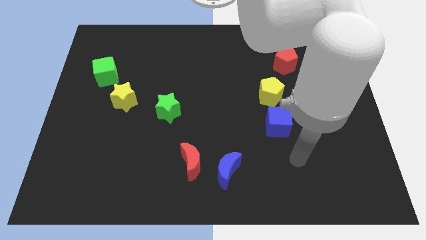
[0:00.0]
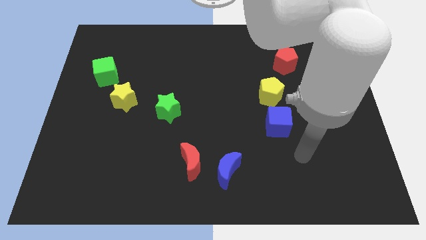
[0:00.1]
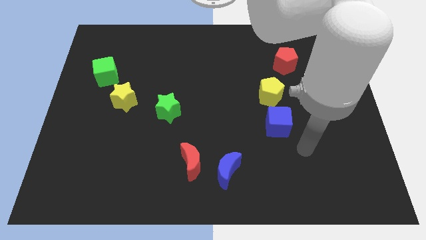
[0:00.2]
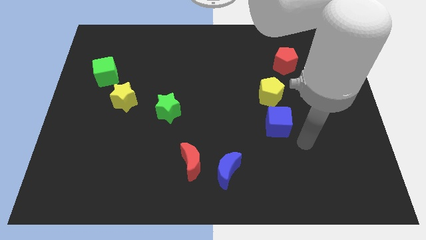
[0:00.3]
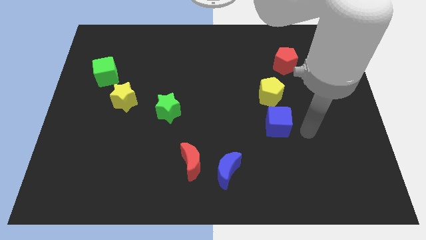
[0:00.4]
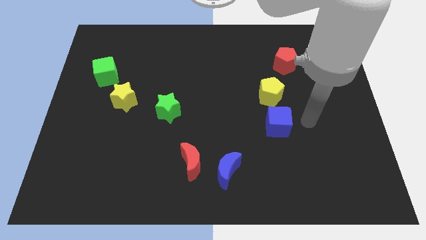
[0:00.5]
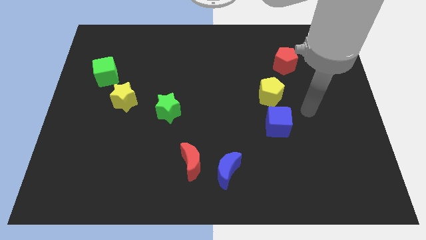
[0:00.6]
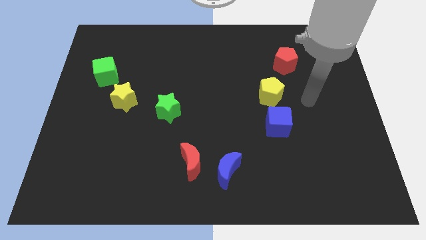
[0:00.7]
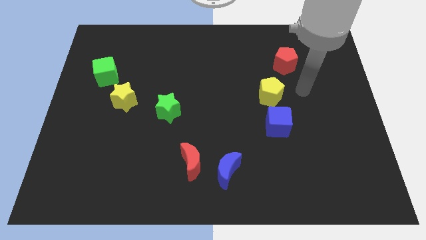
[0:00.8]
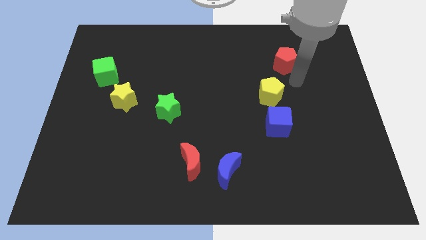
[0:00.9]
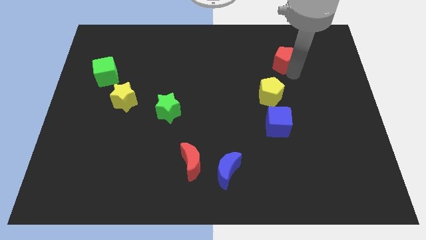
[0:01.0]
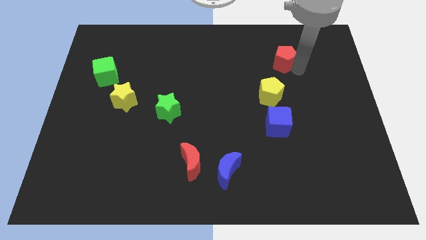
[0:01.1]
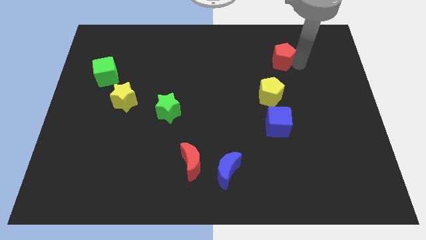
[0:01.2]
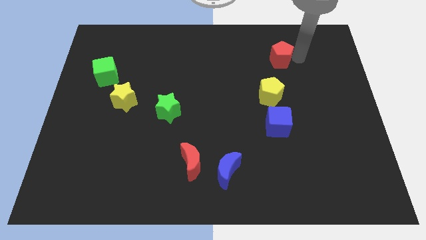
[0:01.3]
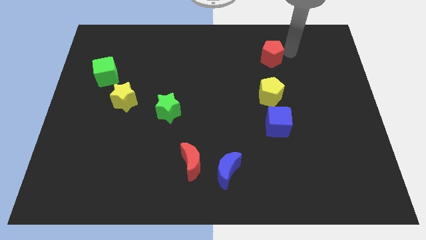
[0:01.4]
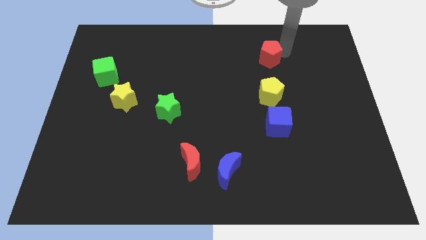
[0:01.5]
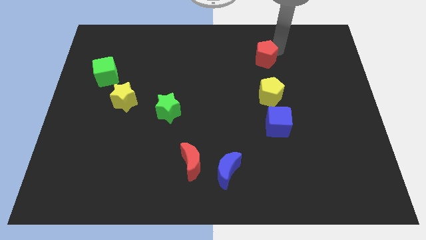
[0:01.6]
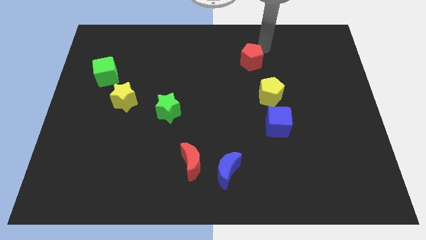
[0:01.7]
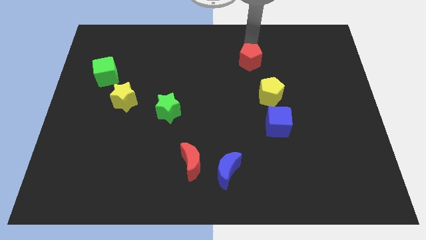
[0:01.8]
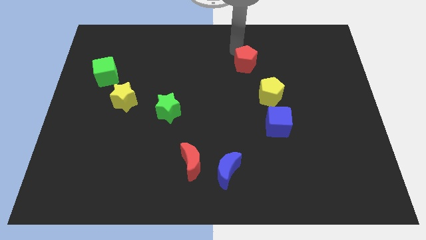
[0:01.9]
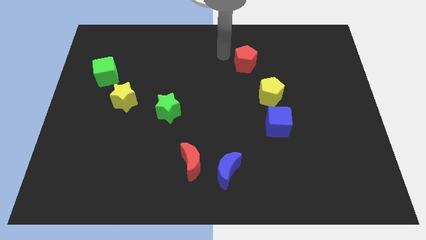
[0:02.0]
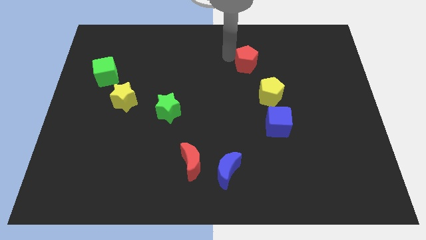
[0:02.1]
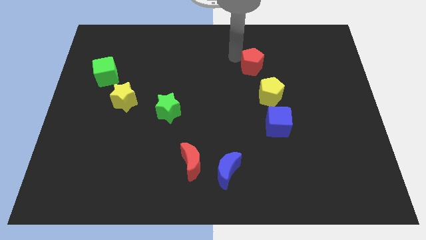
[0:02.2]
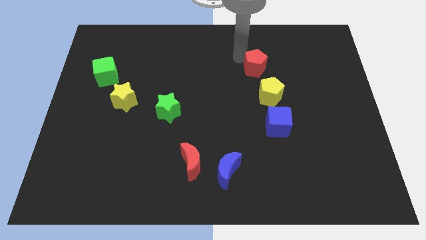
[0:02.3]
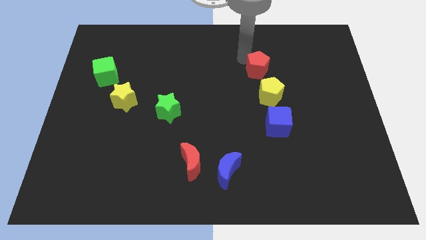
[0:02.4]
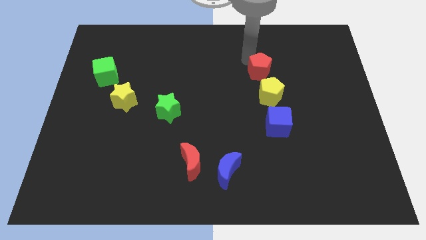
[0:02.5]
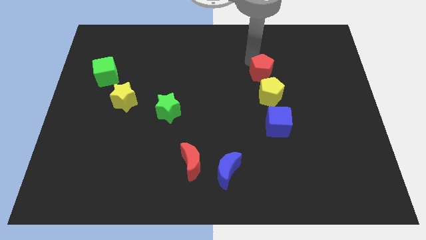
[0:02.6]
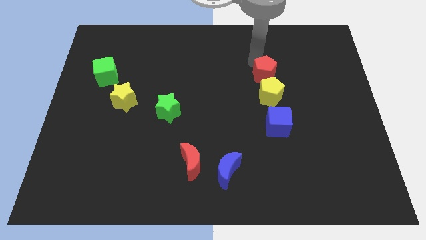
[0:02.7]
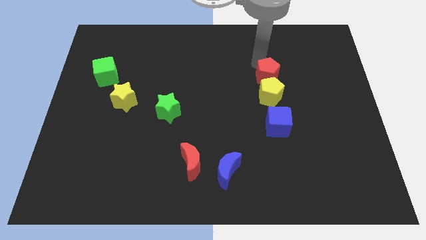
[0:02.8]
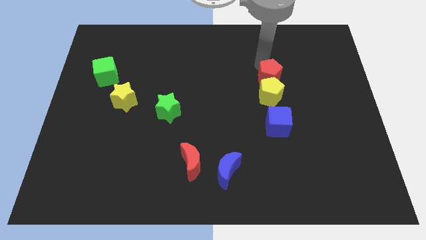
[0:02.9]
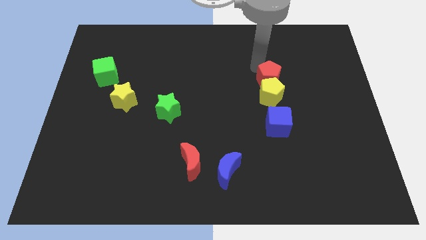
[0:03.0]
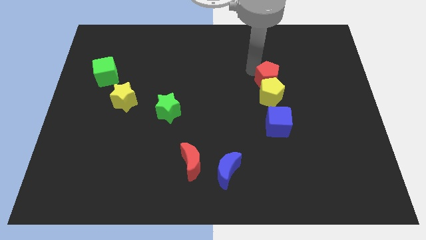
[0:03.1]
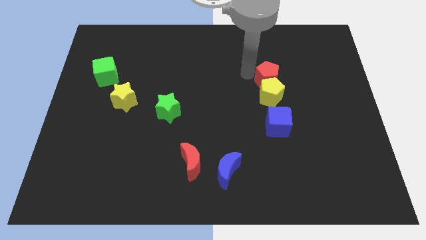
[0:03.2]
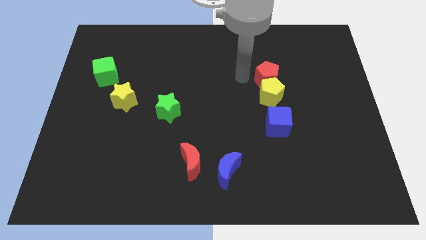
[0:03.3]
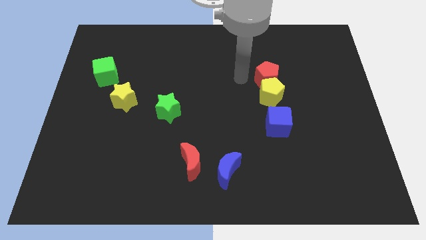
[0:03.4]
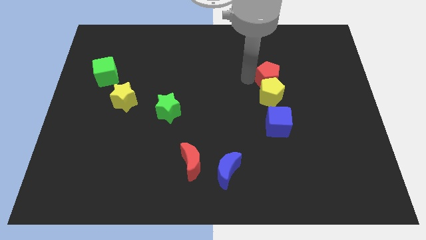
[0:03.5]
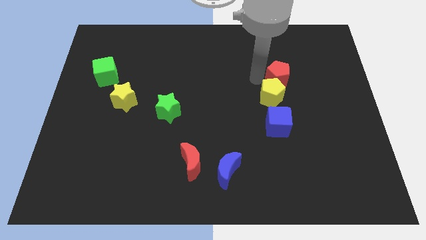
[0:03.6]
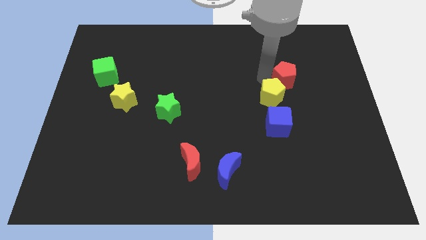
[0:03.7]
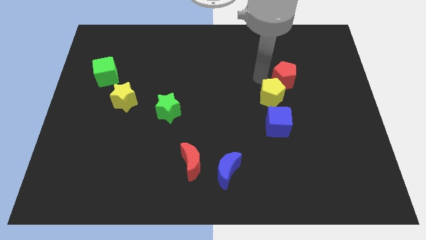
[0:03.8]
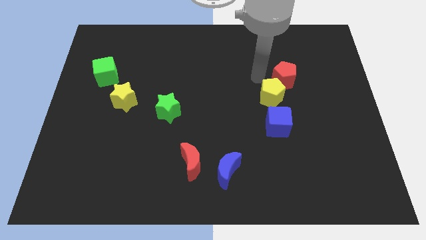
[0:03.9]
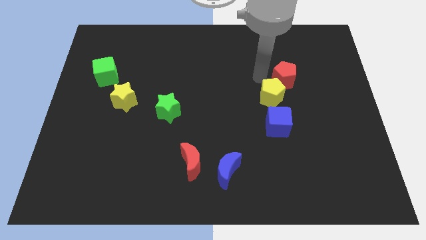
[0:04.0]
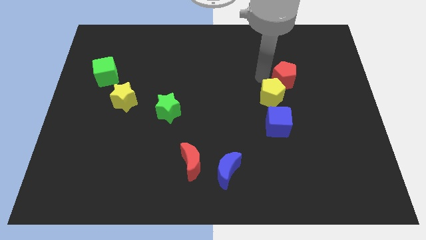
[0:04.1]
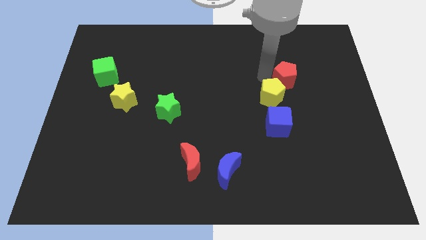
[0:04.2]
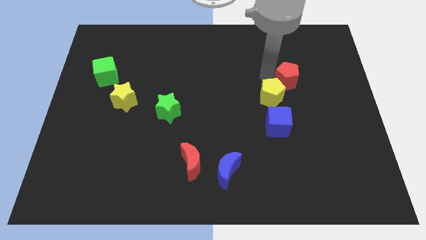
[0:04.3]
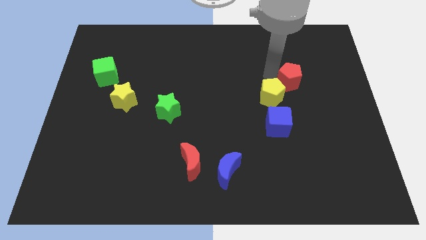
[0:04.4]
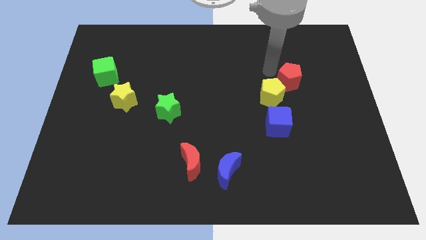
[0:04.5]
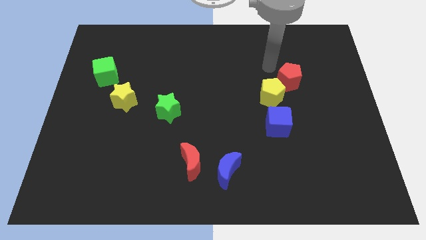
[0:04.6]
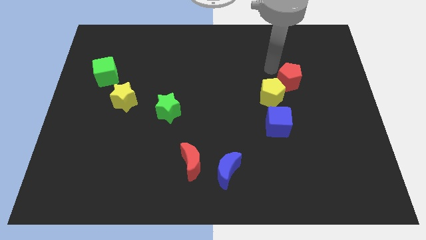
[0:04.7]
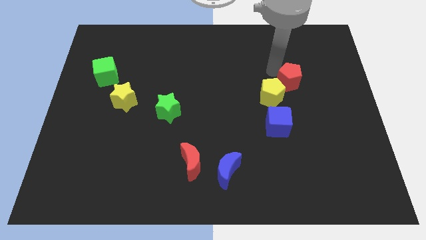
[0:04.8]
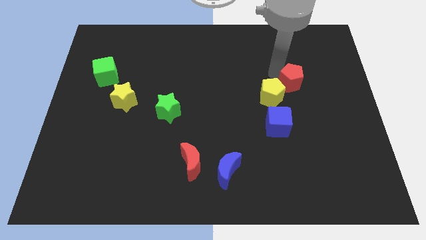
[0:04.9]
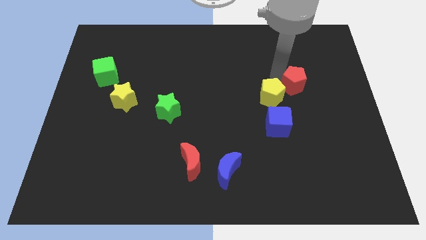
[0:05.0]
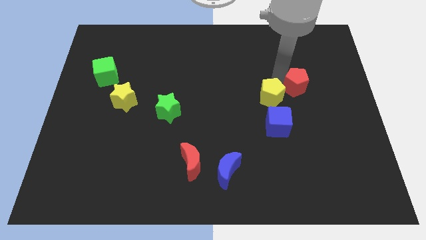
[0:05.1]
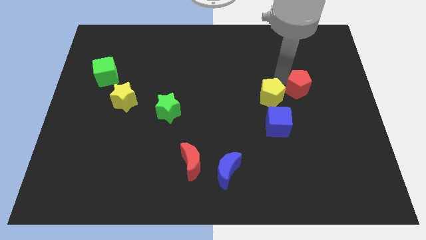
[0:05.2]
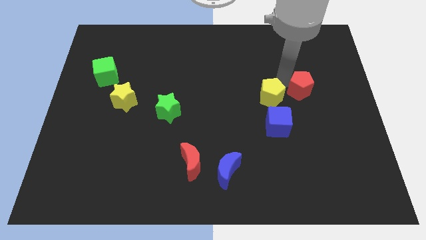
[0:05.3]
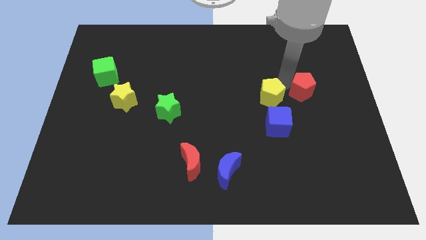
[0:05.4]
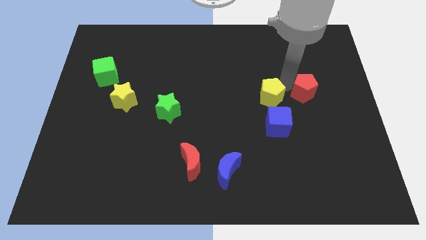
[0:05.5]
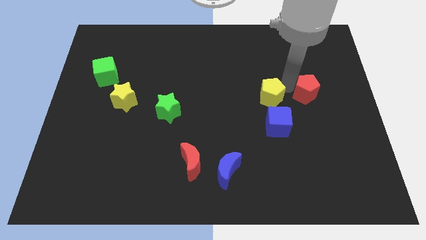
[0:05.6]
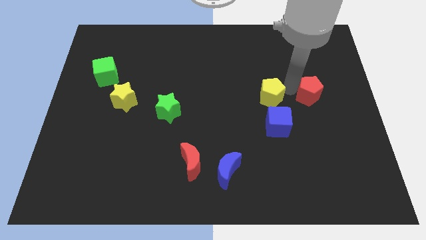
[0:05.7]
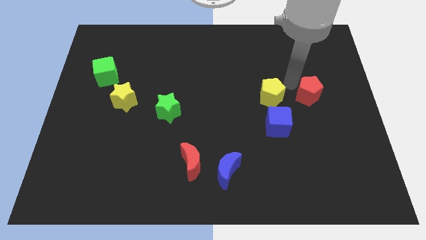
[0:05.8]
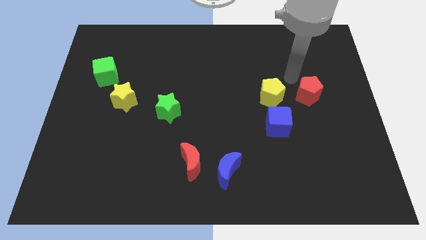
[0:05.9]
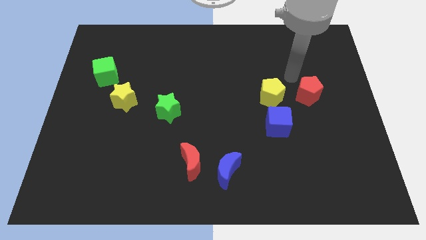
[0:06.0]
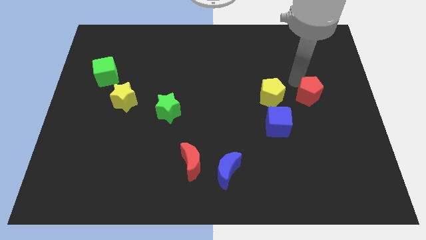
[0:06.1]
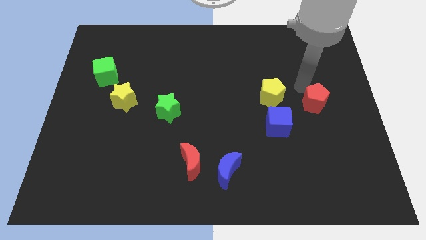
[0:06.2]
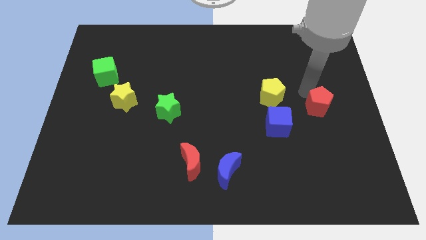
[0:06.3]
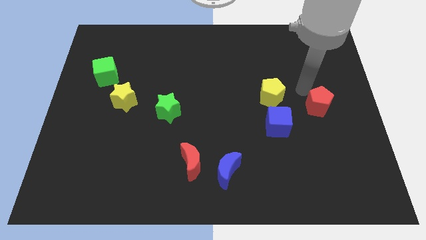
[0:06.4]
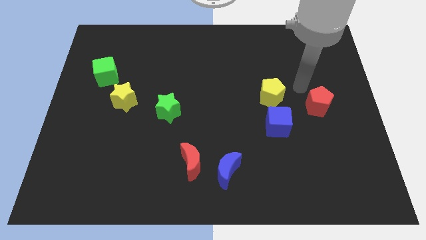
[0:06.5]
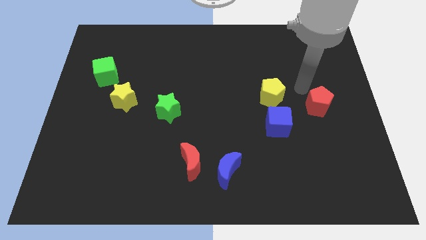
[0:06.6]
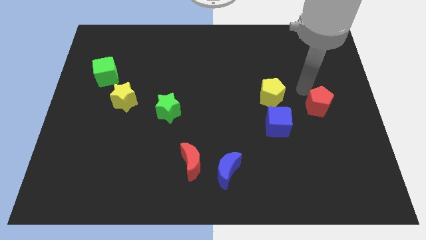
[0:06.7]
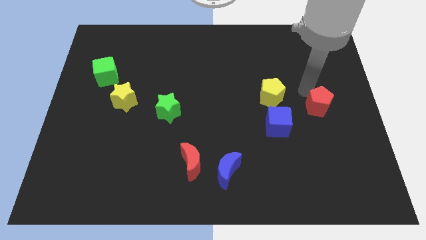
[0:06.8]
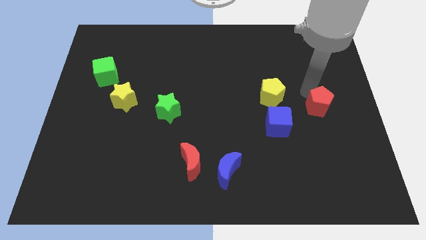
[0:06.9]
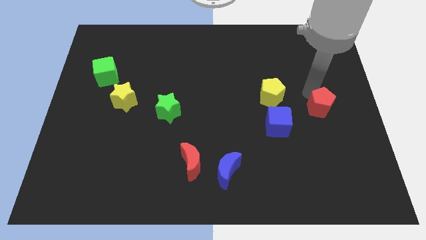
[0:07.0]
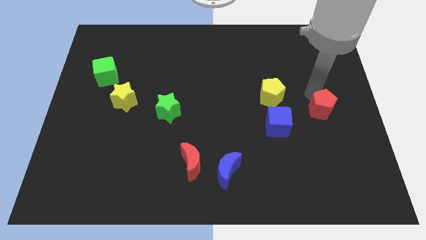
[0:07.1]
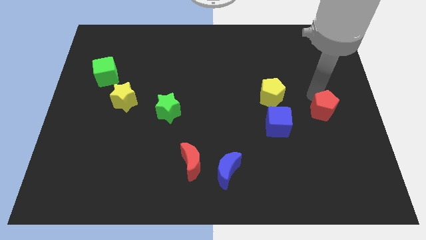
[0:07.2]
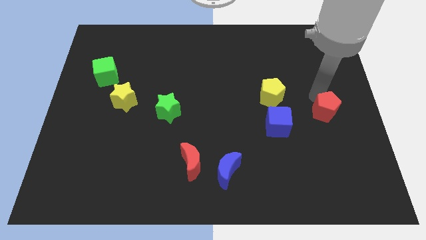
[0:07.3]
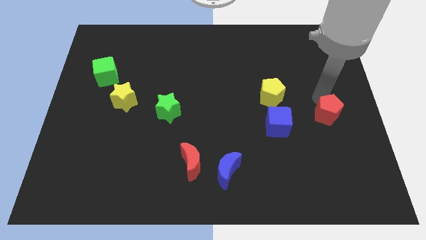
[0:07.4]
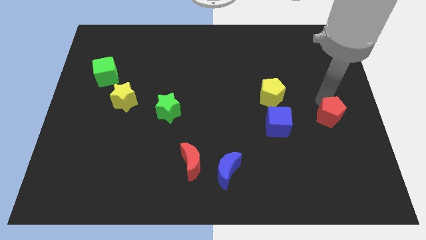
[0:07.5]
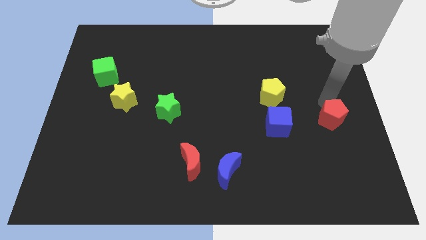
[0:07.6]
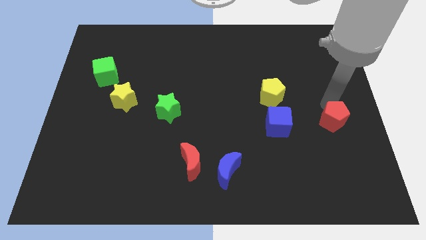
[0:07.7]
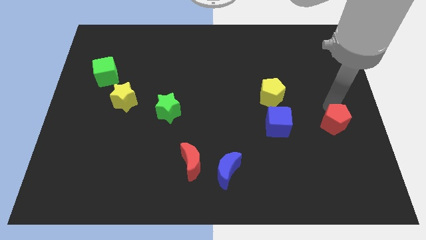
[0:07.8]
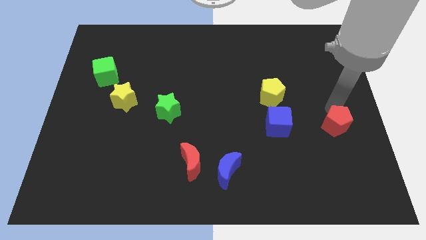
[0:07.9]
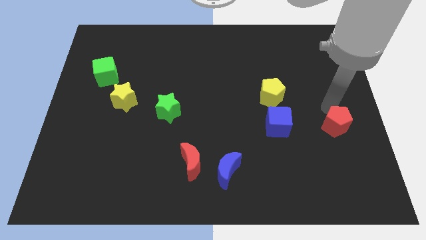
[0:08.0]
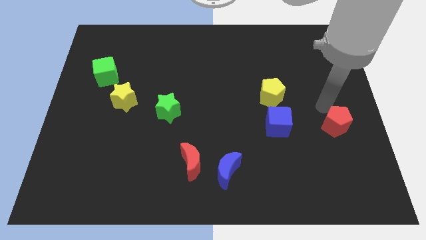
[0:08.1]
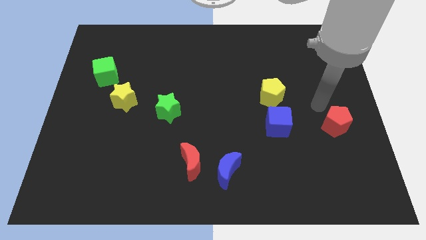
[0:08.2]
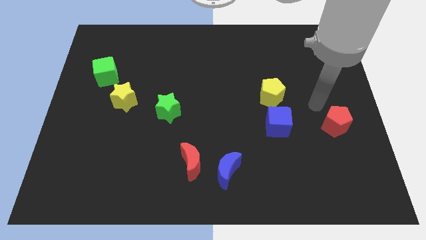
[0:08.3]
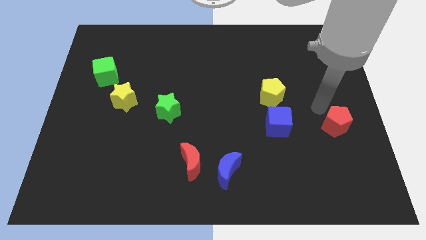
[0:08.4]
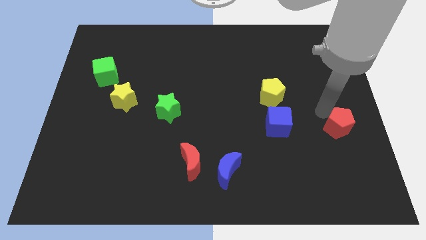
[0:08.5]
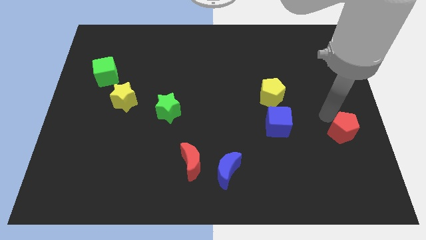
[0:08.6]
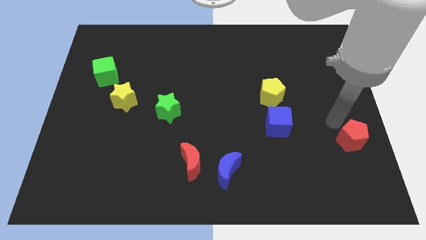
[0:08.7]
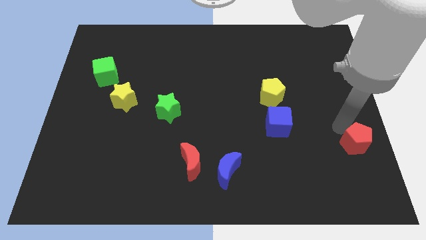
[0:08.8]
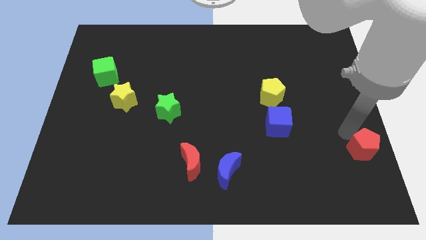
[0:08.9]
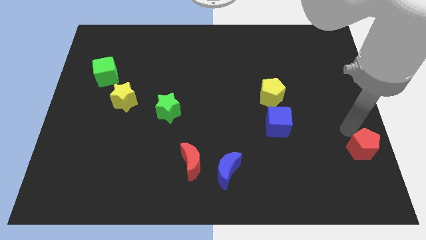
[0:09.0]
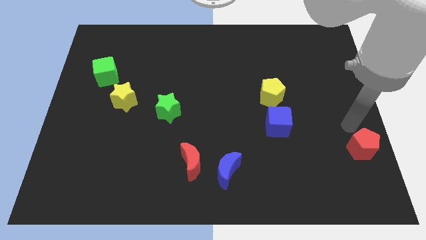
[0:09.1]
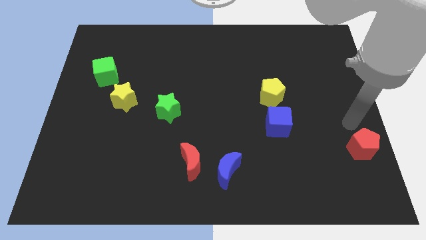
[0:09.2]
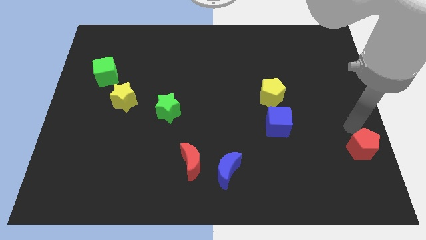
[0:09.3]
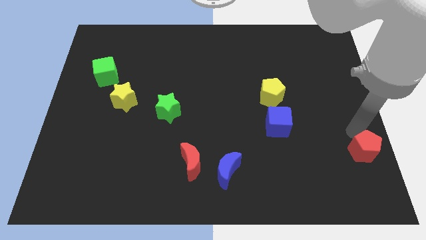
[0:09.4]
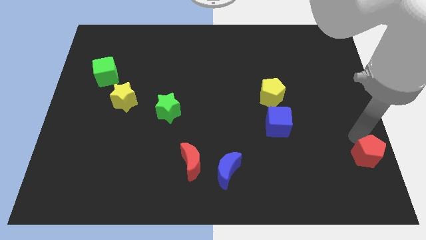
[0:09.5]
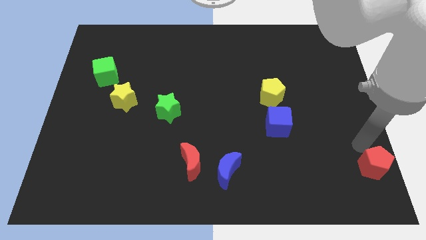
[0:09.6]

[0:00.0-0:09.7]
slide the red pentagon to the bottom right of the board
